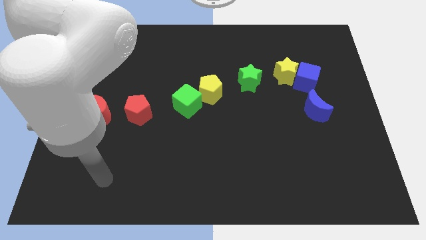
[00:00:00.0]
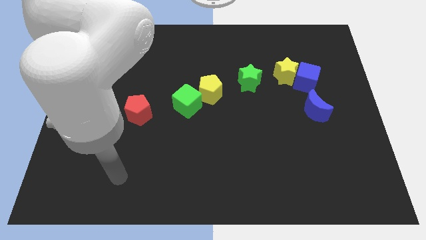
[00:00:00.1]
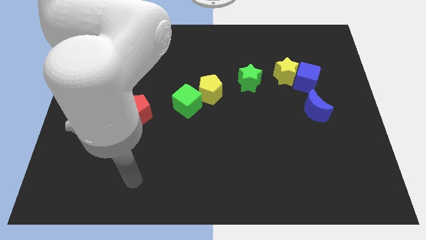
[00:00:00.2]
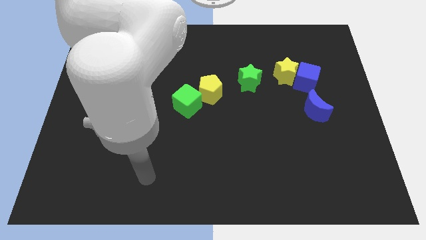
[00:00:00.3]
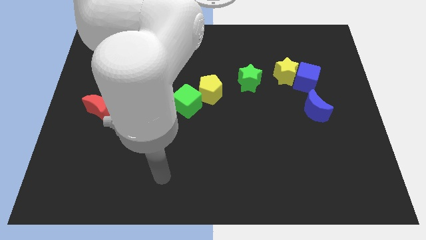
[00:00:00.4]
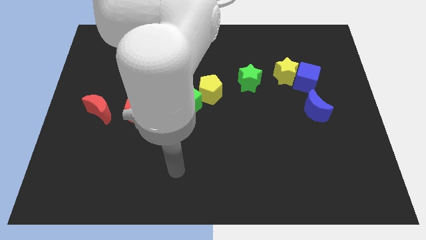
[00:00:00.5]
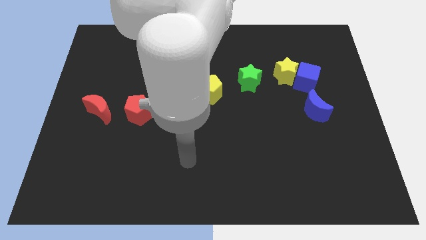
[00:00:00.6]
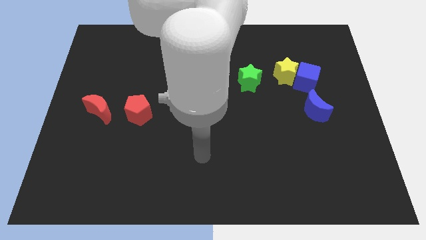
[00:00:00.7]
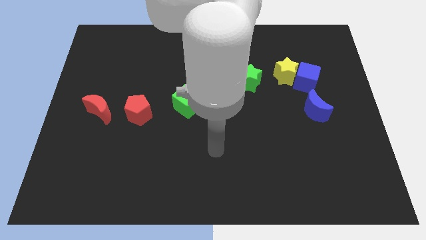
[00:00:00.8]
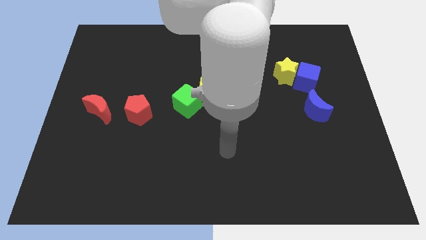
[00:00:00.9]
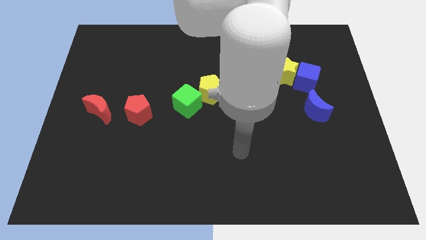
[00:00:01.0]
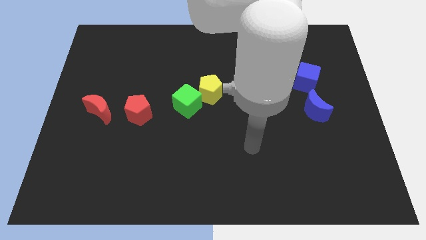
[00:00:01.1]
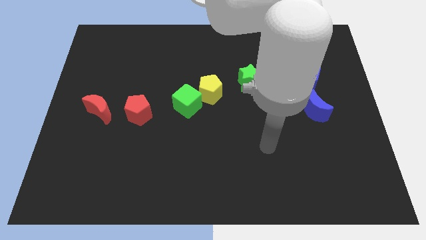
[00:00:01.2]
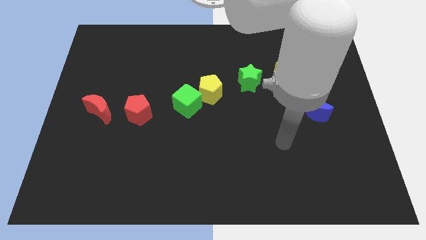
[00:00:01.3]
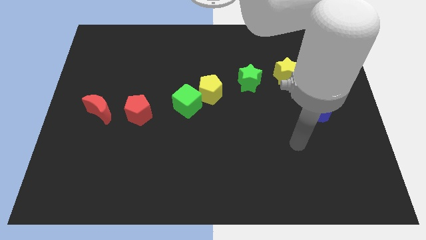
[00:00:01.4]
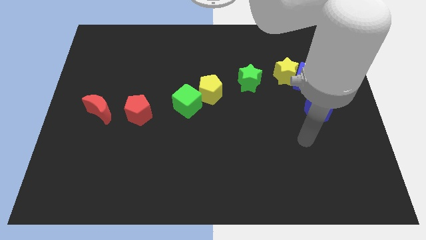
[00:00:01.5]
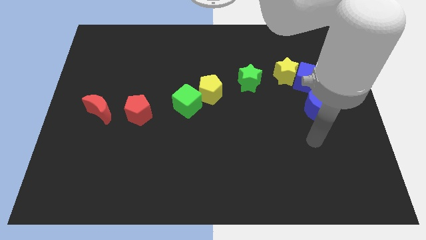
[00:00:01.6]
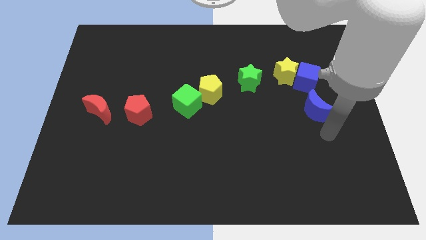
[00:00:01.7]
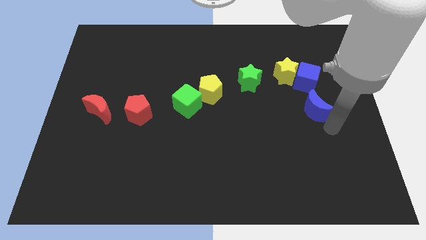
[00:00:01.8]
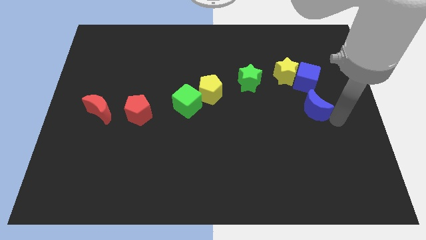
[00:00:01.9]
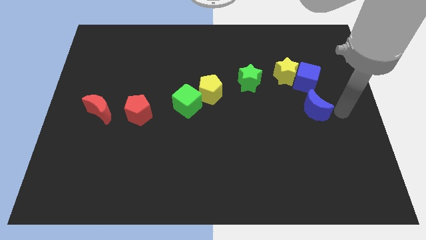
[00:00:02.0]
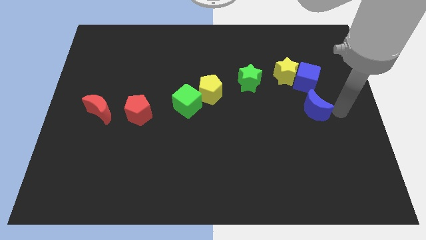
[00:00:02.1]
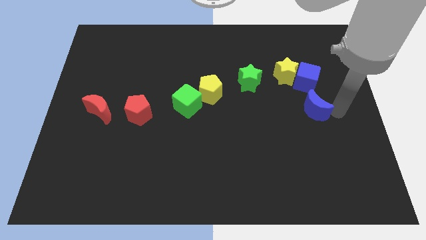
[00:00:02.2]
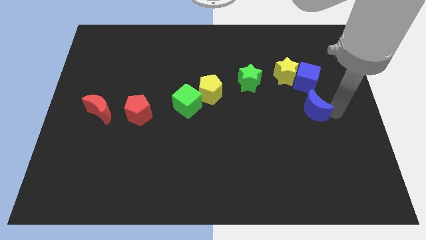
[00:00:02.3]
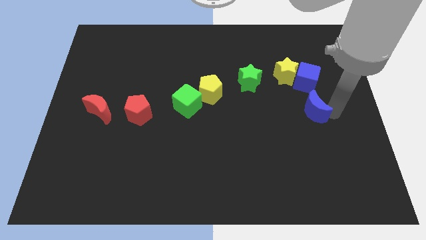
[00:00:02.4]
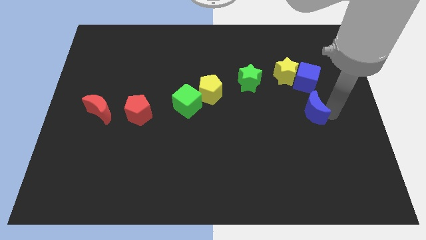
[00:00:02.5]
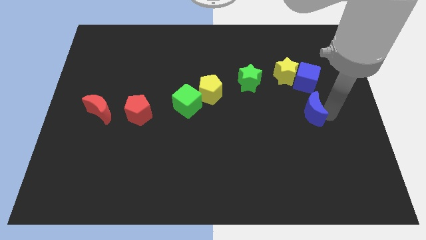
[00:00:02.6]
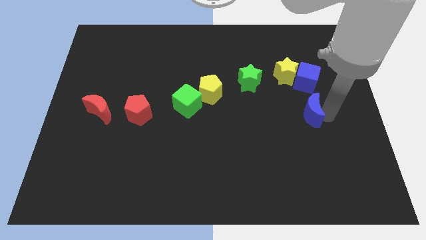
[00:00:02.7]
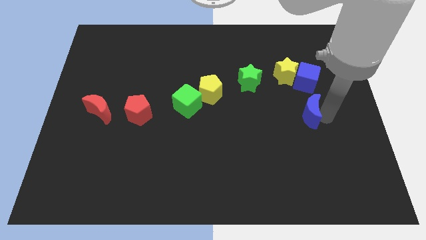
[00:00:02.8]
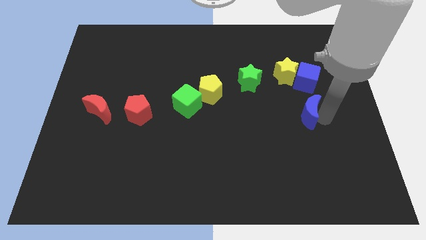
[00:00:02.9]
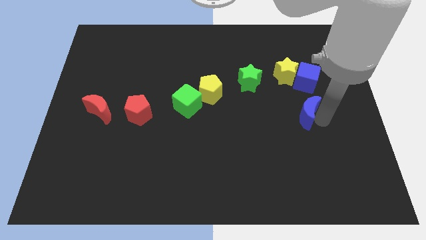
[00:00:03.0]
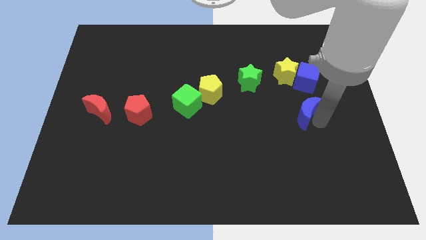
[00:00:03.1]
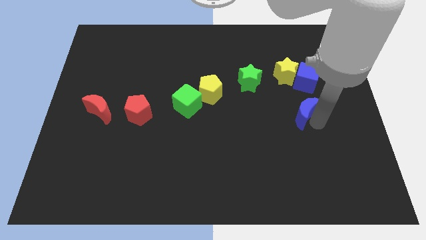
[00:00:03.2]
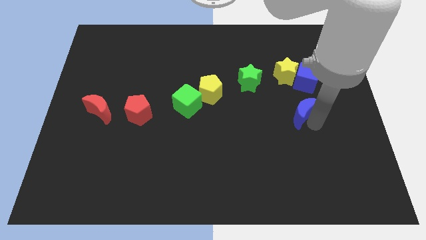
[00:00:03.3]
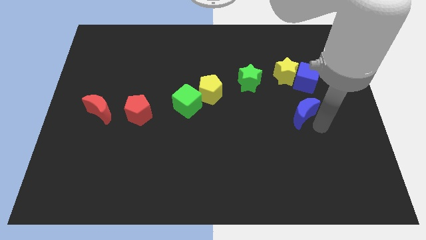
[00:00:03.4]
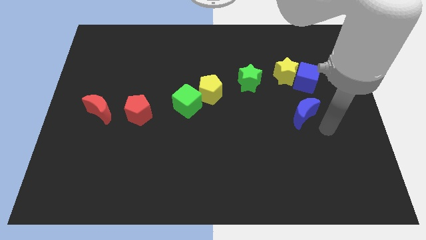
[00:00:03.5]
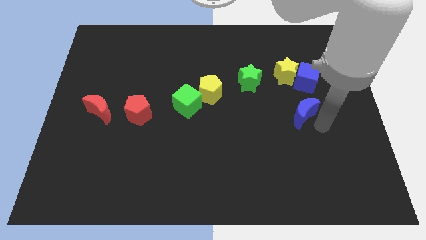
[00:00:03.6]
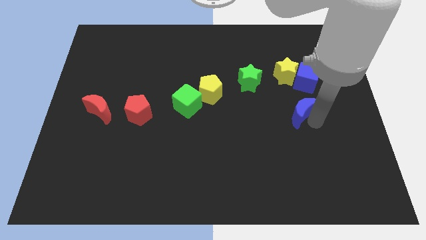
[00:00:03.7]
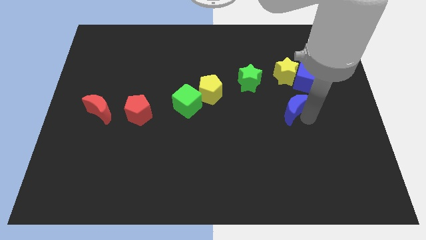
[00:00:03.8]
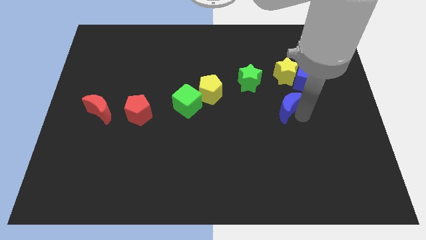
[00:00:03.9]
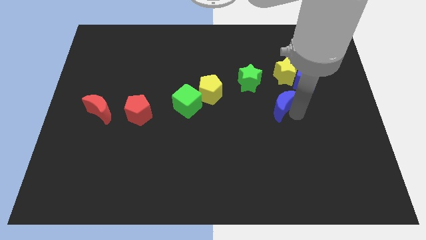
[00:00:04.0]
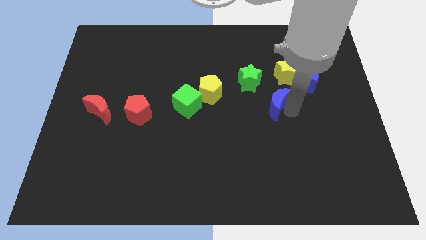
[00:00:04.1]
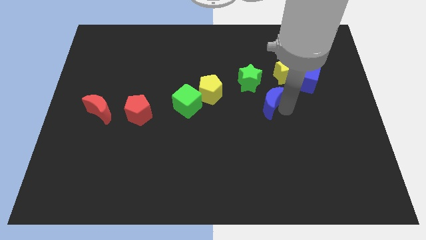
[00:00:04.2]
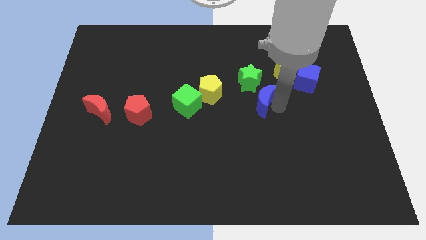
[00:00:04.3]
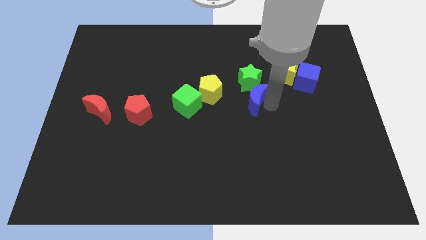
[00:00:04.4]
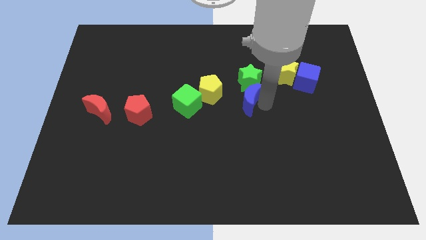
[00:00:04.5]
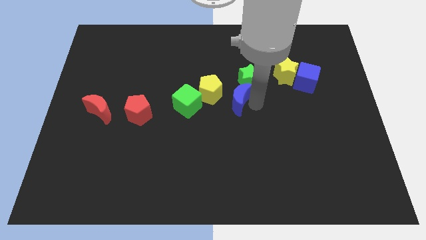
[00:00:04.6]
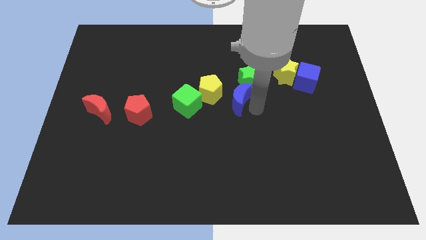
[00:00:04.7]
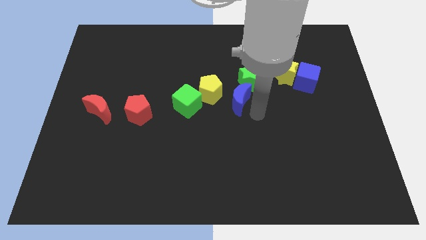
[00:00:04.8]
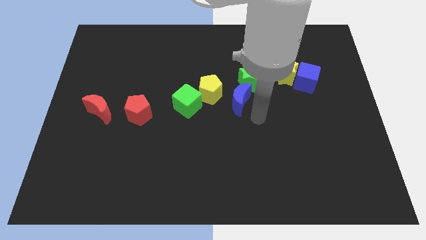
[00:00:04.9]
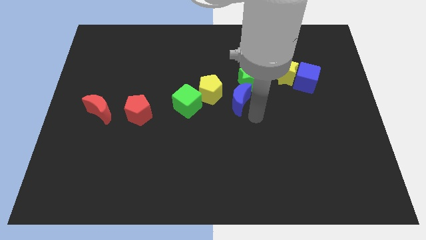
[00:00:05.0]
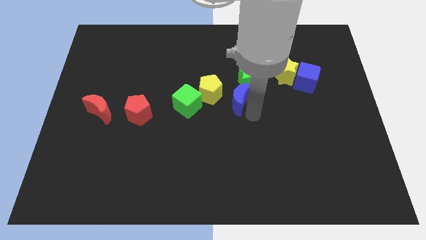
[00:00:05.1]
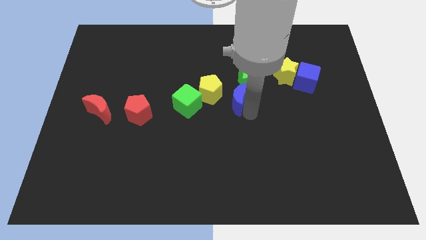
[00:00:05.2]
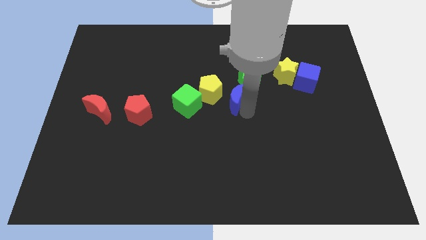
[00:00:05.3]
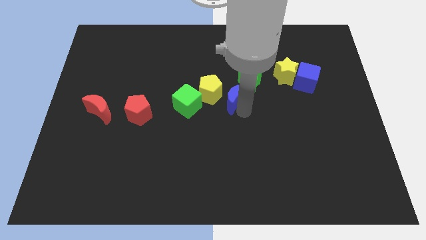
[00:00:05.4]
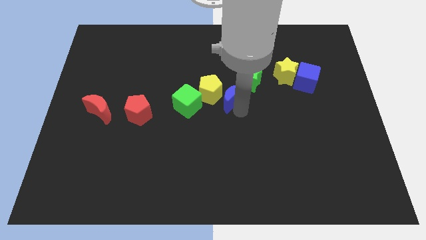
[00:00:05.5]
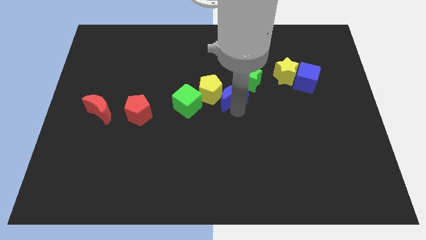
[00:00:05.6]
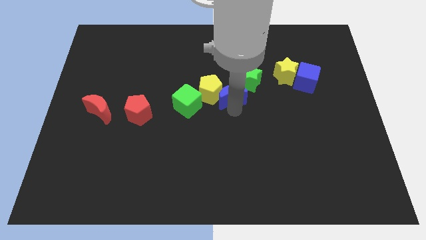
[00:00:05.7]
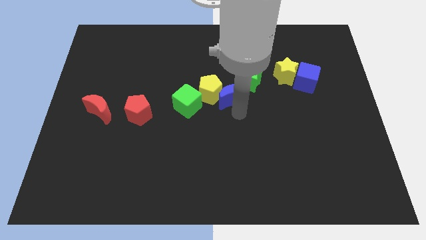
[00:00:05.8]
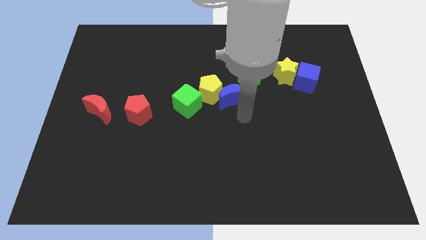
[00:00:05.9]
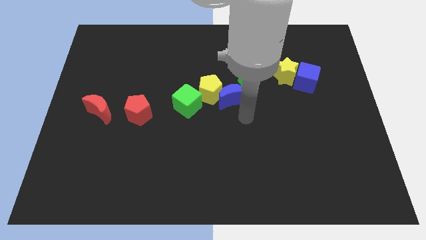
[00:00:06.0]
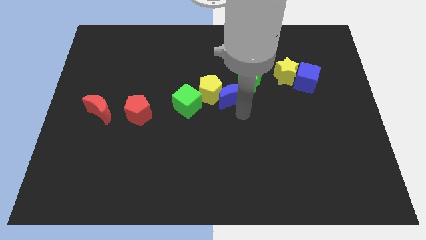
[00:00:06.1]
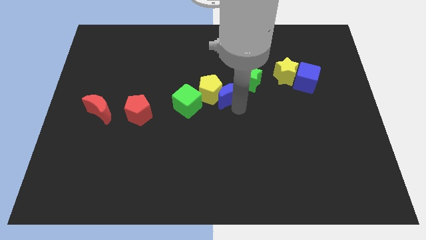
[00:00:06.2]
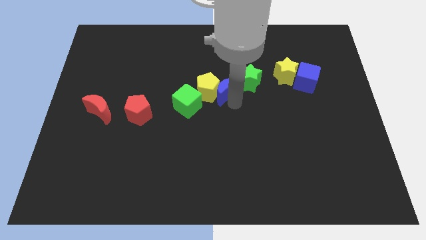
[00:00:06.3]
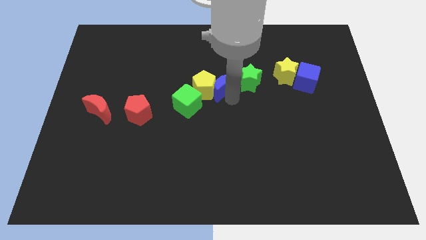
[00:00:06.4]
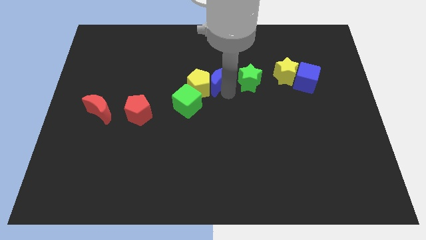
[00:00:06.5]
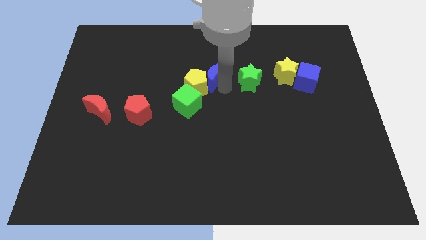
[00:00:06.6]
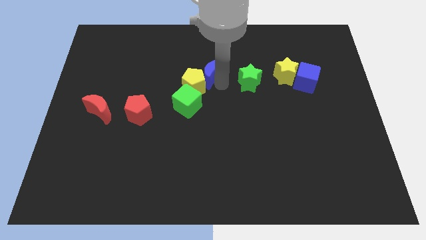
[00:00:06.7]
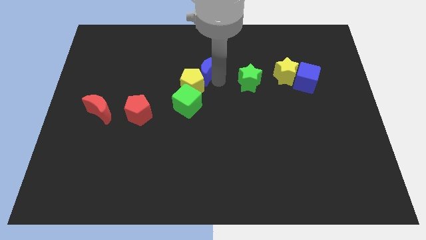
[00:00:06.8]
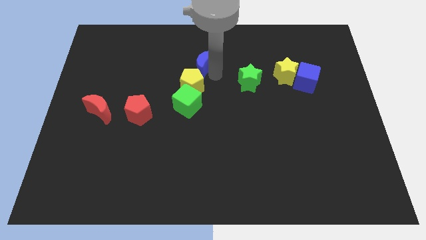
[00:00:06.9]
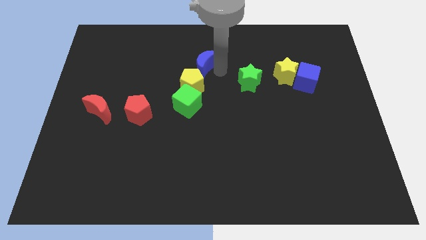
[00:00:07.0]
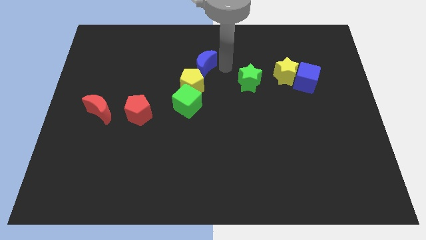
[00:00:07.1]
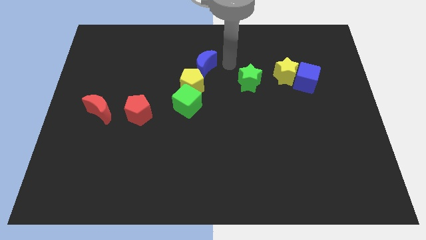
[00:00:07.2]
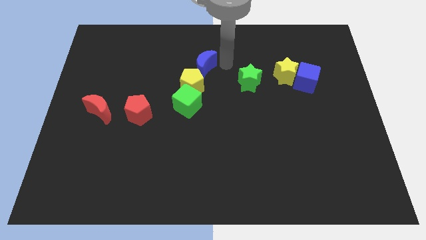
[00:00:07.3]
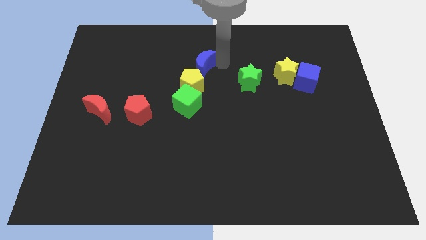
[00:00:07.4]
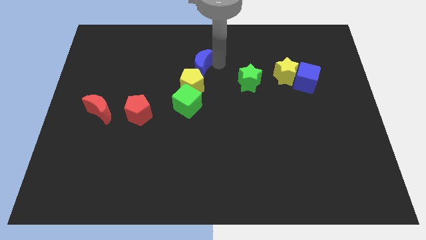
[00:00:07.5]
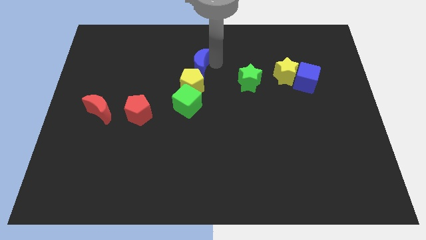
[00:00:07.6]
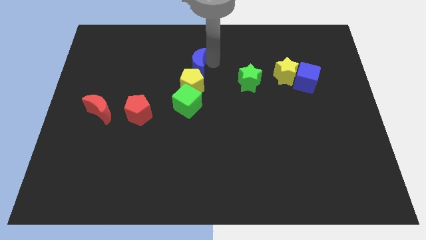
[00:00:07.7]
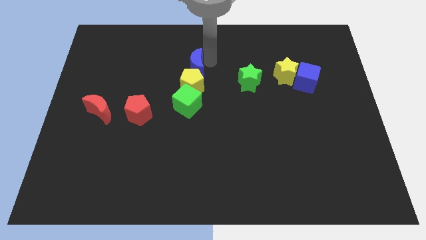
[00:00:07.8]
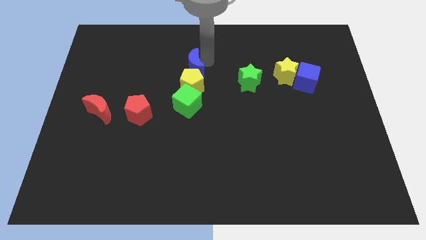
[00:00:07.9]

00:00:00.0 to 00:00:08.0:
put the blue moon to the top left side of the yellow pentagon
